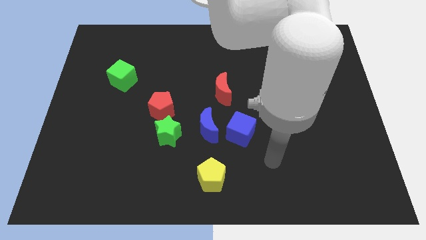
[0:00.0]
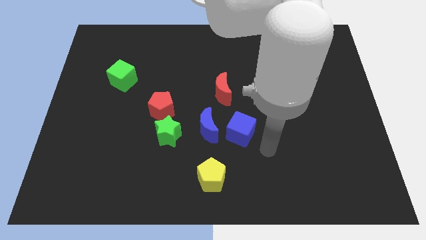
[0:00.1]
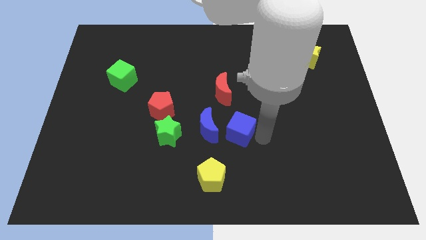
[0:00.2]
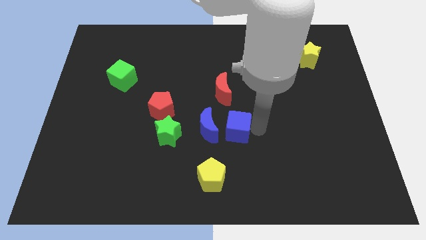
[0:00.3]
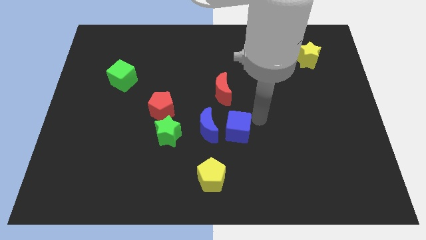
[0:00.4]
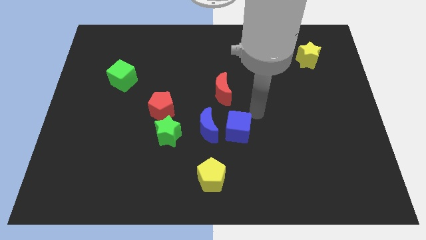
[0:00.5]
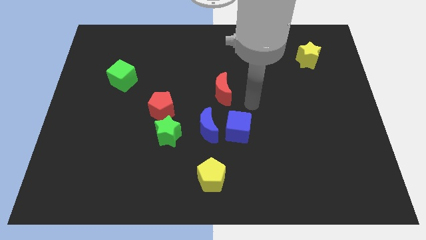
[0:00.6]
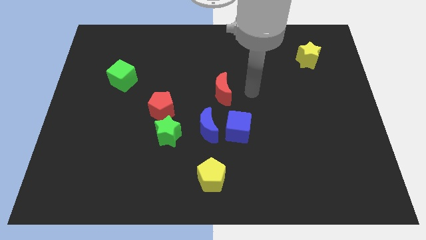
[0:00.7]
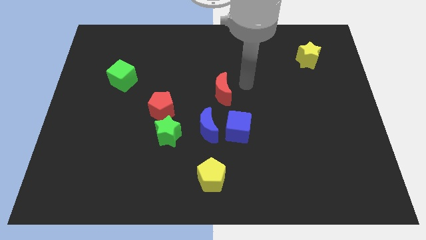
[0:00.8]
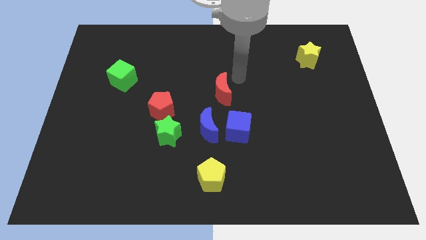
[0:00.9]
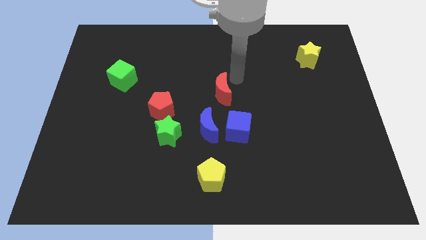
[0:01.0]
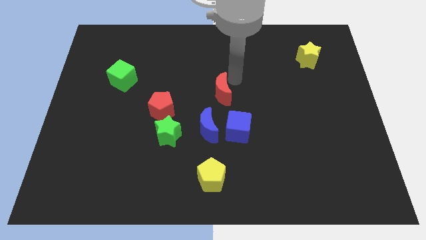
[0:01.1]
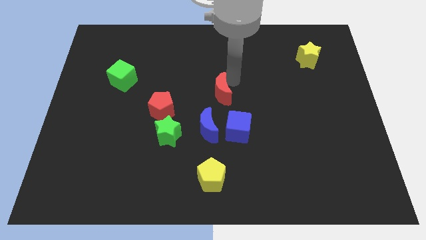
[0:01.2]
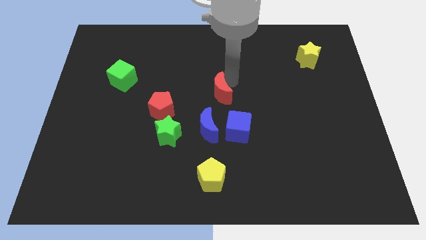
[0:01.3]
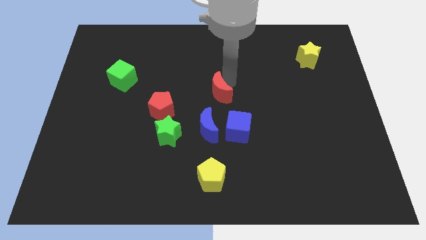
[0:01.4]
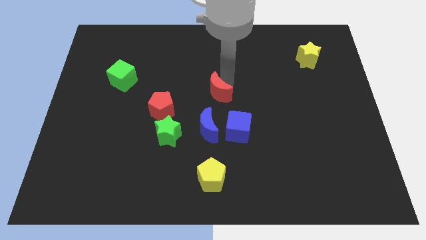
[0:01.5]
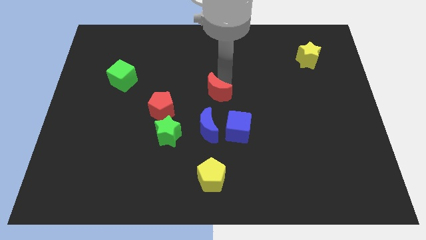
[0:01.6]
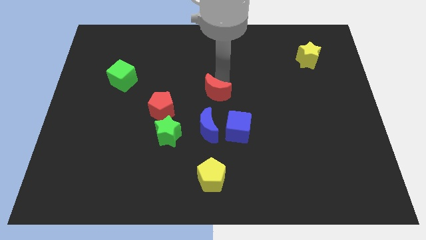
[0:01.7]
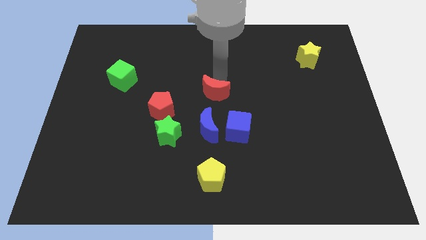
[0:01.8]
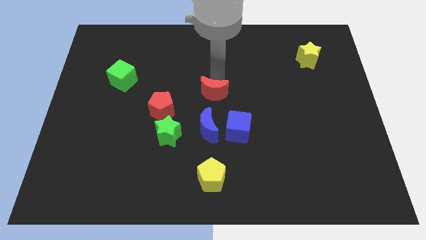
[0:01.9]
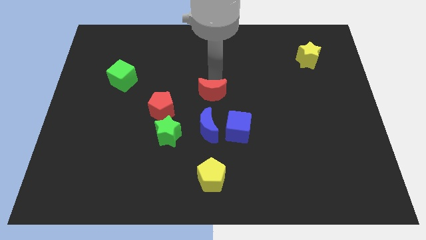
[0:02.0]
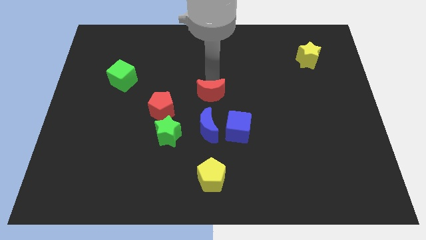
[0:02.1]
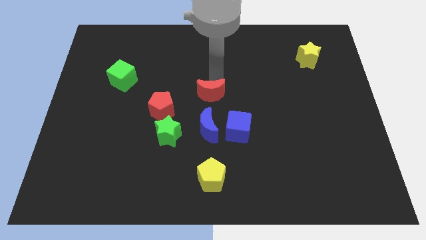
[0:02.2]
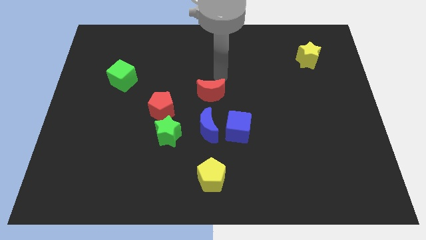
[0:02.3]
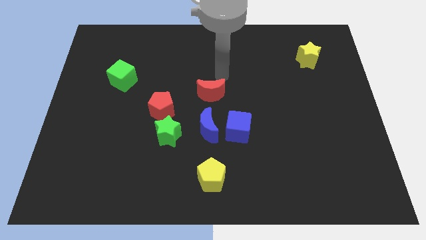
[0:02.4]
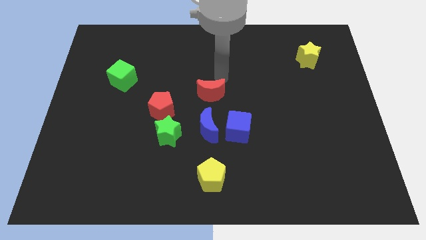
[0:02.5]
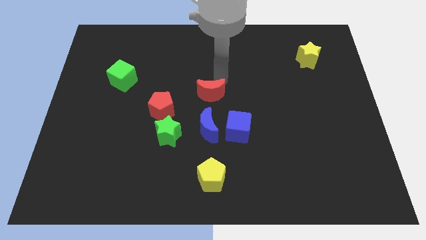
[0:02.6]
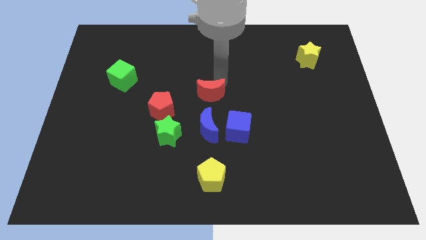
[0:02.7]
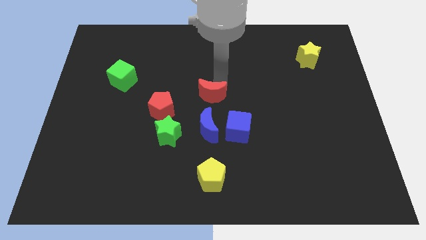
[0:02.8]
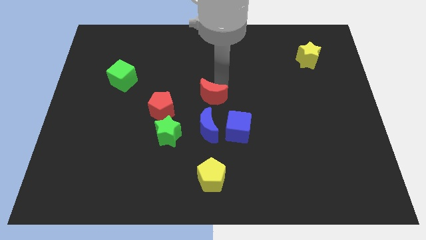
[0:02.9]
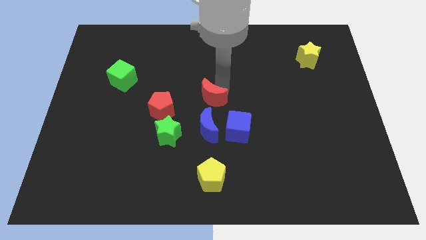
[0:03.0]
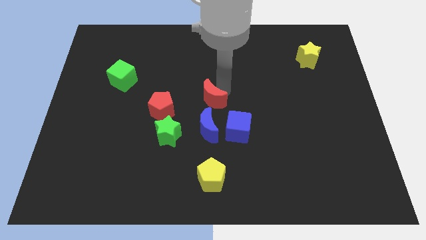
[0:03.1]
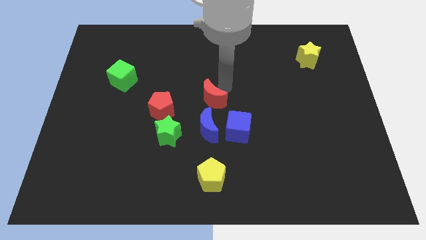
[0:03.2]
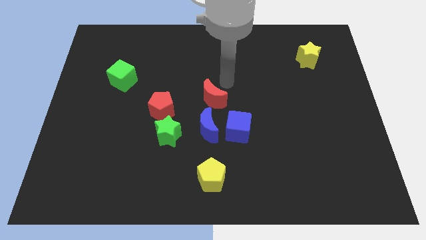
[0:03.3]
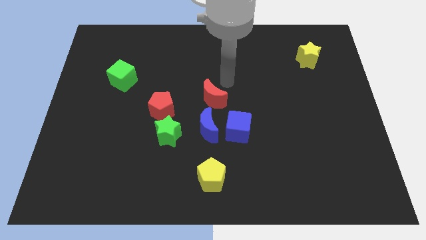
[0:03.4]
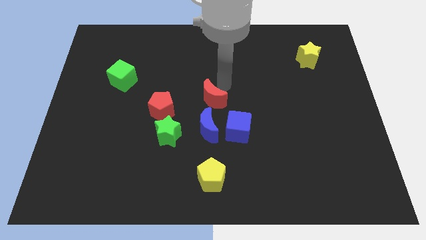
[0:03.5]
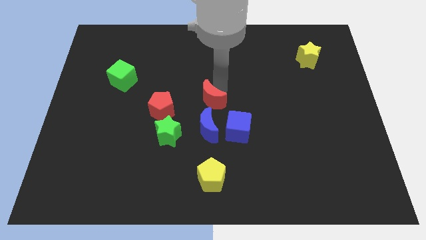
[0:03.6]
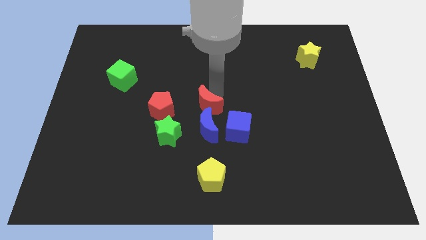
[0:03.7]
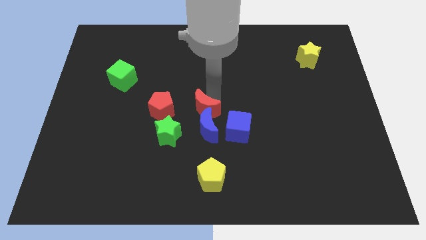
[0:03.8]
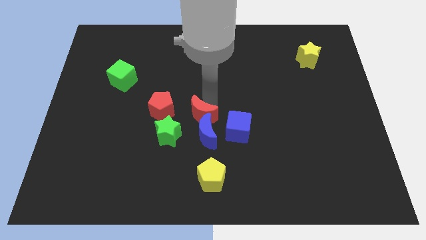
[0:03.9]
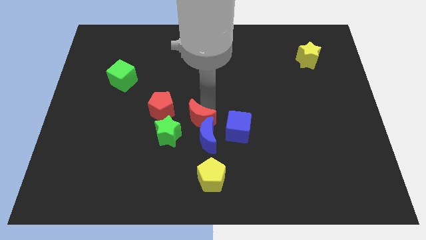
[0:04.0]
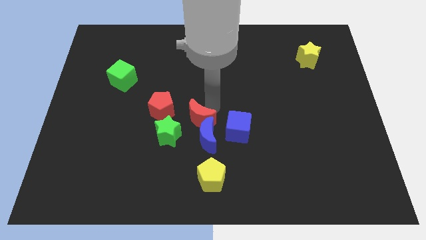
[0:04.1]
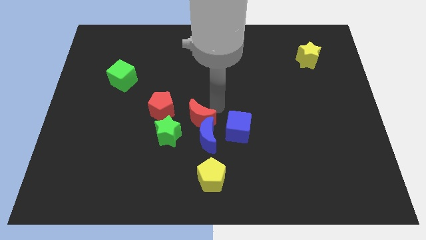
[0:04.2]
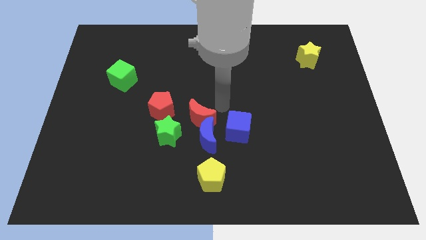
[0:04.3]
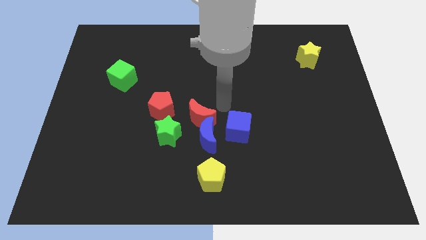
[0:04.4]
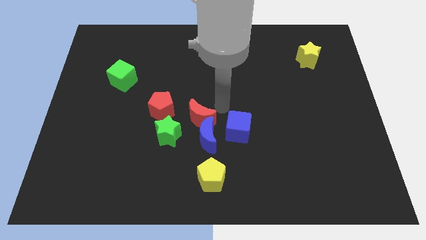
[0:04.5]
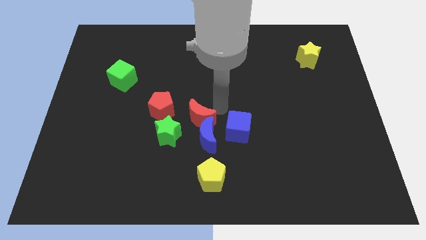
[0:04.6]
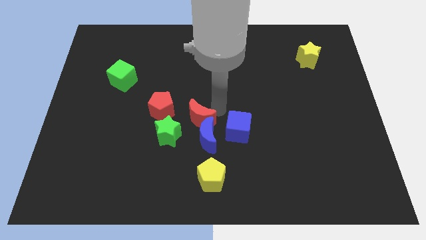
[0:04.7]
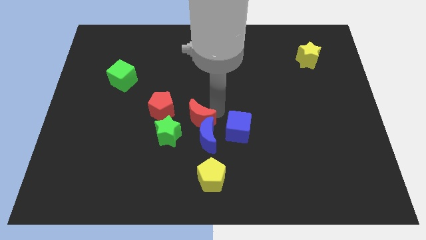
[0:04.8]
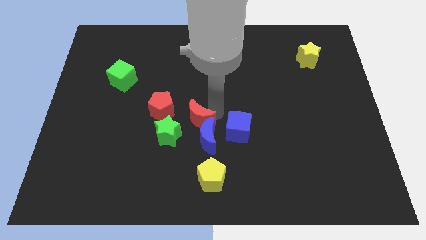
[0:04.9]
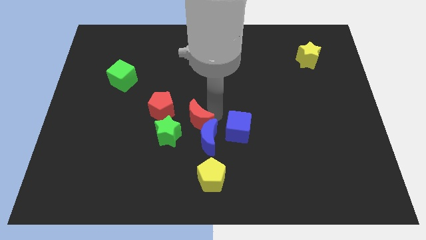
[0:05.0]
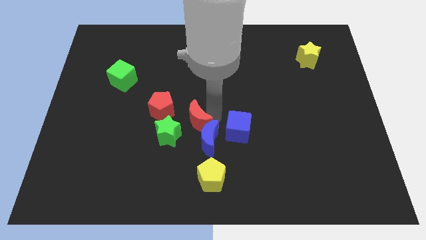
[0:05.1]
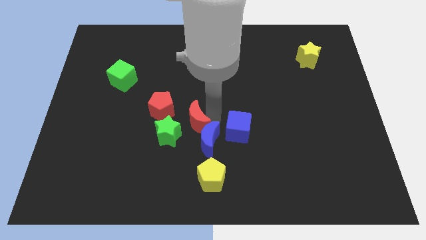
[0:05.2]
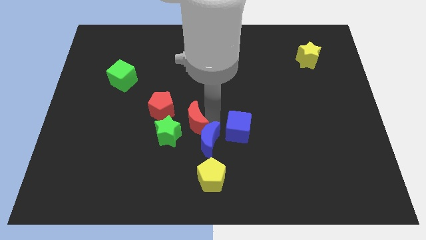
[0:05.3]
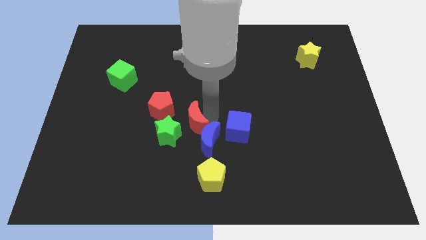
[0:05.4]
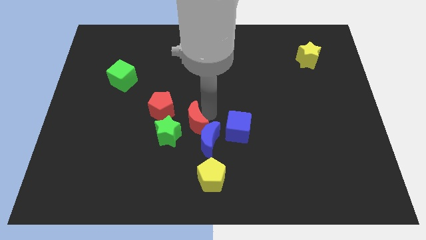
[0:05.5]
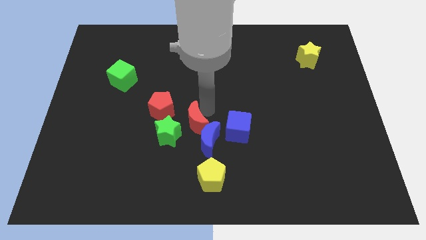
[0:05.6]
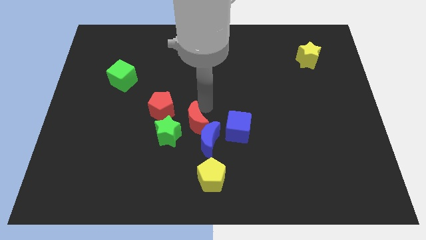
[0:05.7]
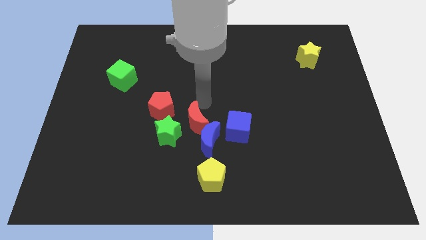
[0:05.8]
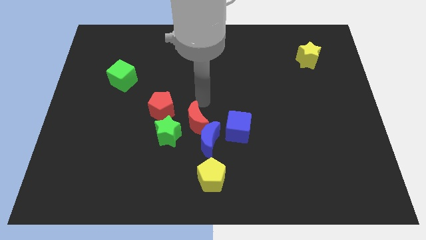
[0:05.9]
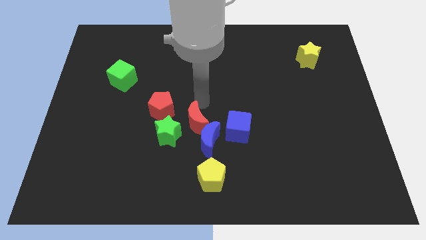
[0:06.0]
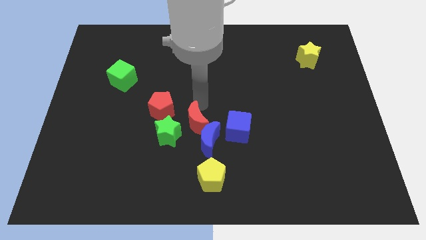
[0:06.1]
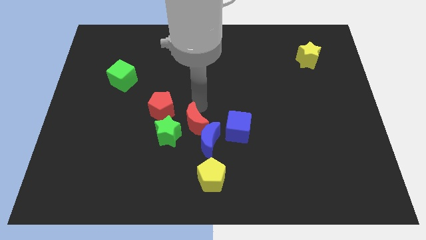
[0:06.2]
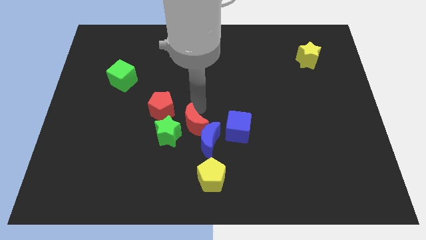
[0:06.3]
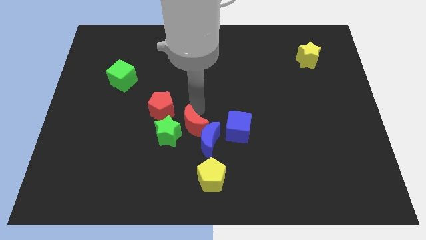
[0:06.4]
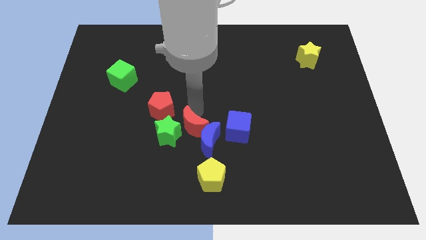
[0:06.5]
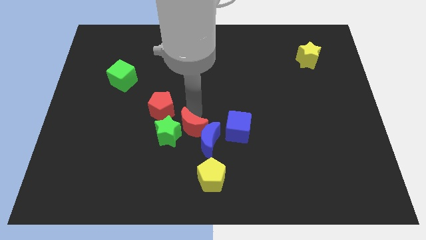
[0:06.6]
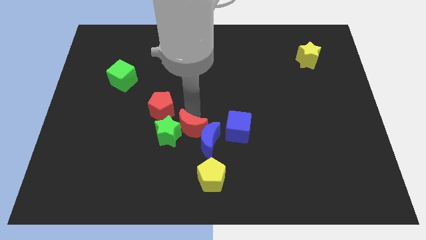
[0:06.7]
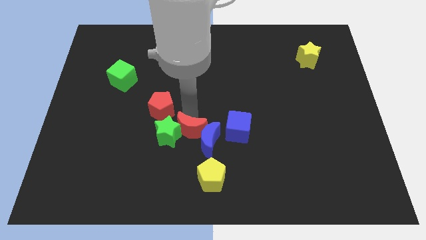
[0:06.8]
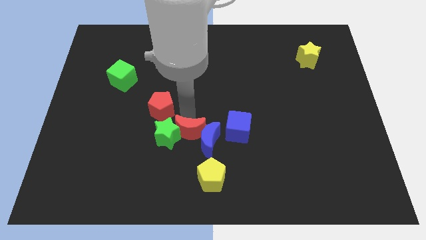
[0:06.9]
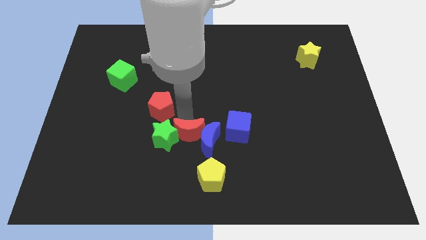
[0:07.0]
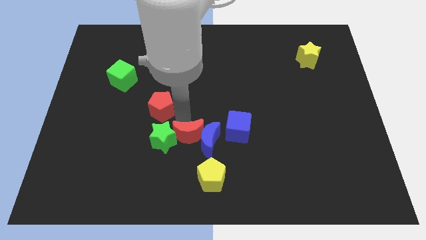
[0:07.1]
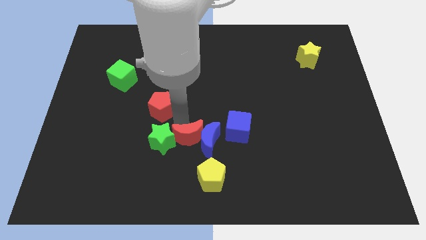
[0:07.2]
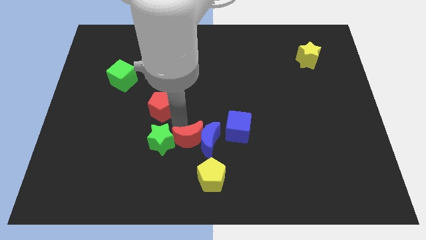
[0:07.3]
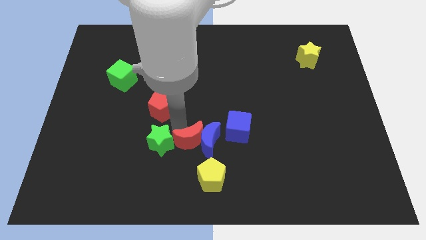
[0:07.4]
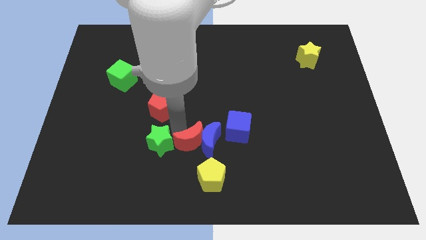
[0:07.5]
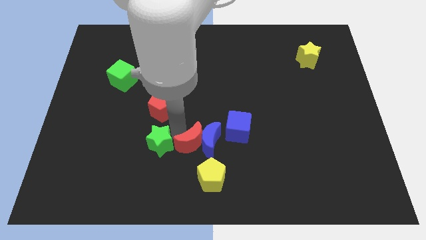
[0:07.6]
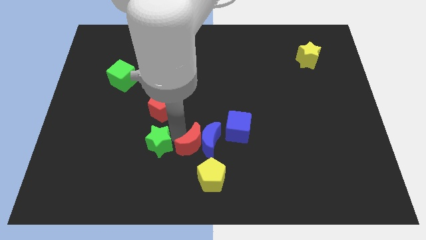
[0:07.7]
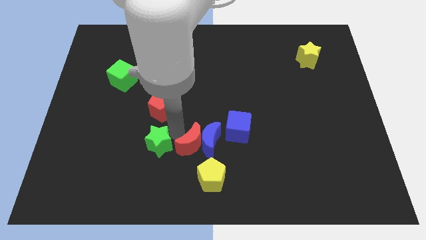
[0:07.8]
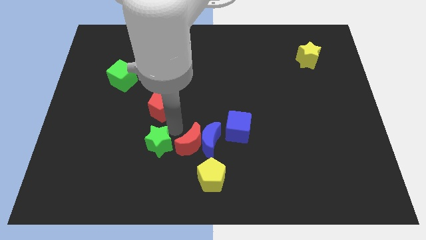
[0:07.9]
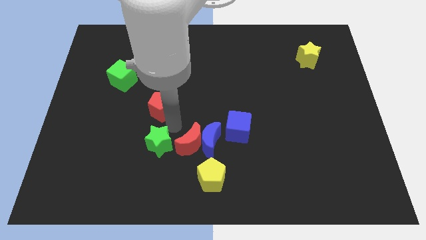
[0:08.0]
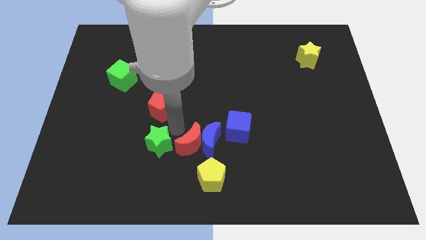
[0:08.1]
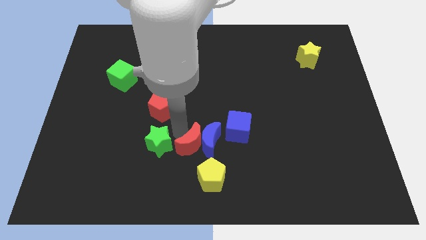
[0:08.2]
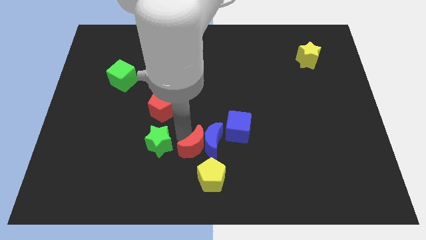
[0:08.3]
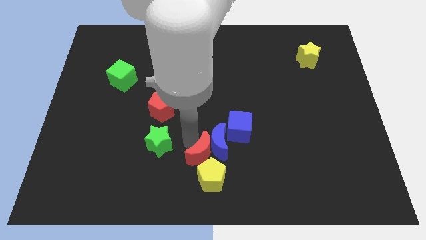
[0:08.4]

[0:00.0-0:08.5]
push the red moon to the yellow pentagon
